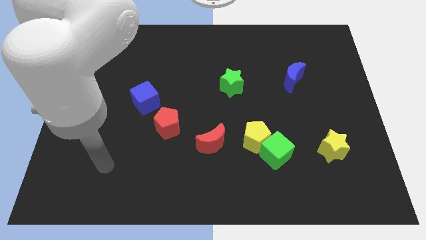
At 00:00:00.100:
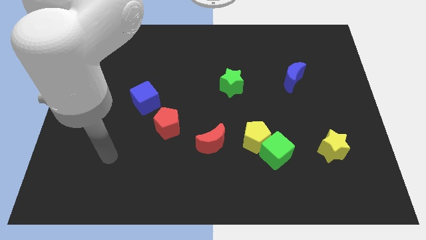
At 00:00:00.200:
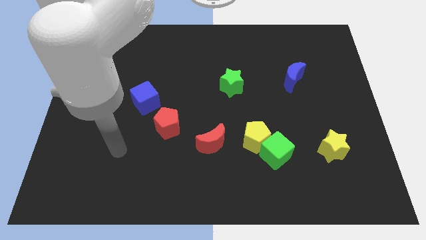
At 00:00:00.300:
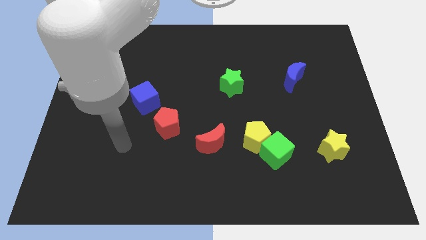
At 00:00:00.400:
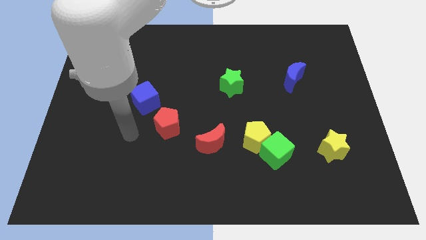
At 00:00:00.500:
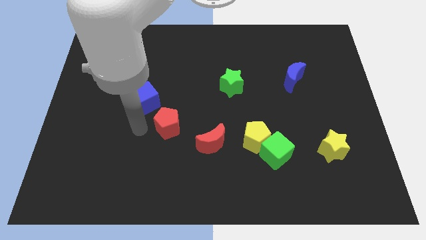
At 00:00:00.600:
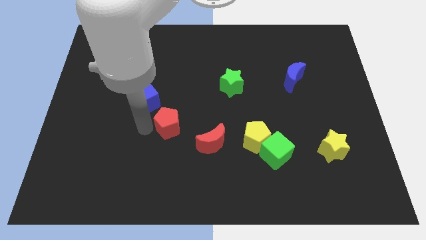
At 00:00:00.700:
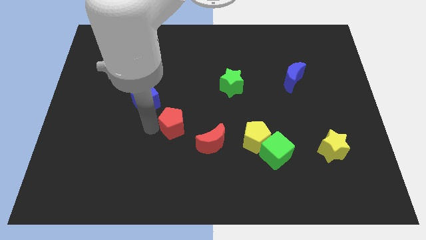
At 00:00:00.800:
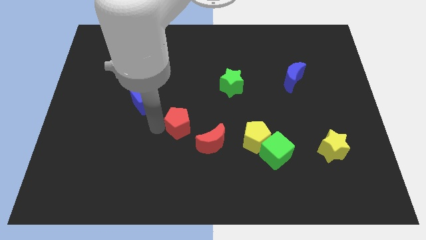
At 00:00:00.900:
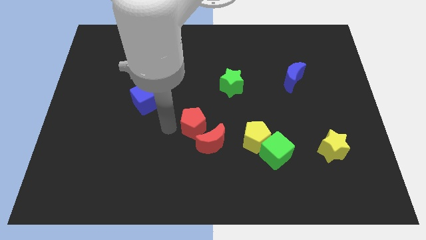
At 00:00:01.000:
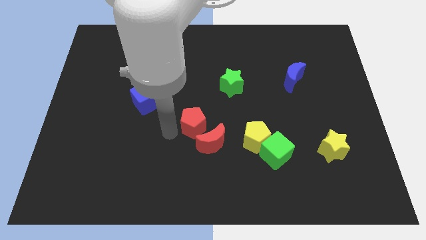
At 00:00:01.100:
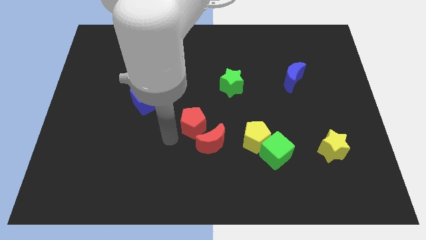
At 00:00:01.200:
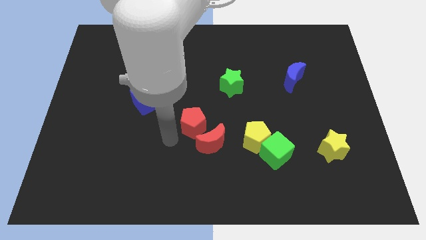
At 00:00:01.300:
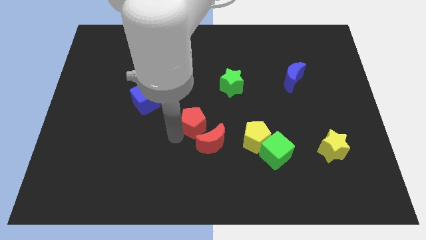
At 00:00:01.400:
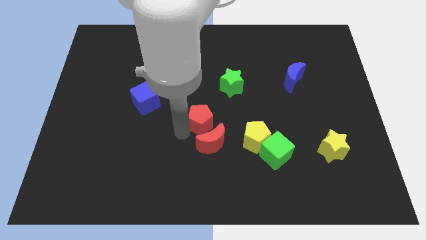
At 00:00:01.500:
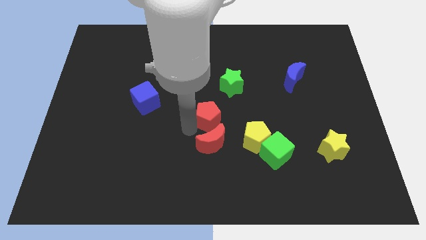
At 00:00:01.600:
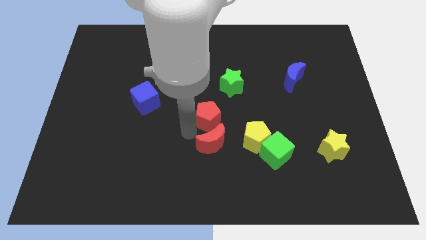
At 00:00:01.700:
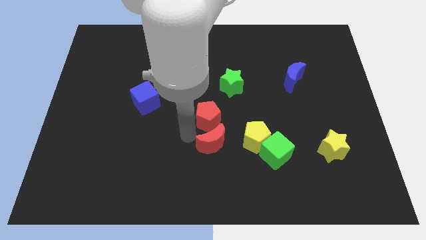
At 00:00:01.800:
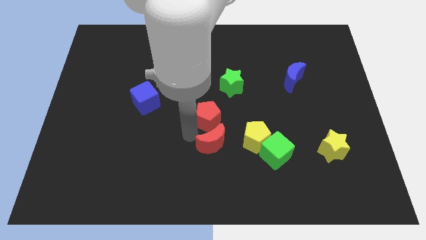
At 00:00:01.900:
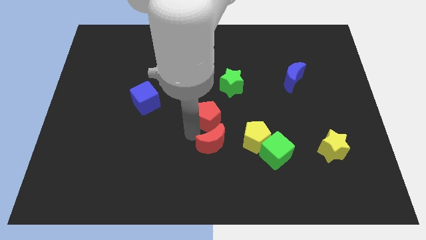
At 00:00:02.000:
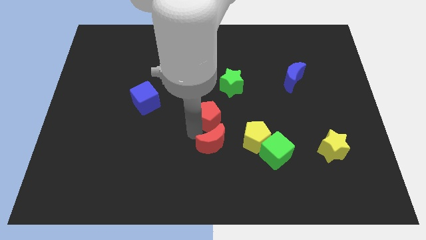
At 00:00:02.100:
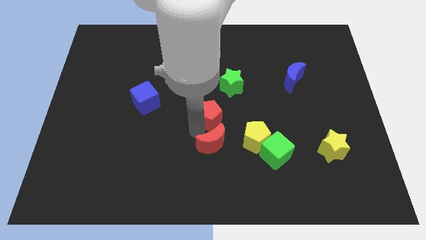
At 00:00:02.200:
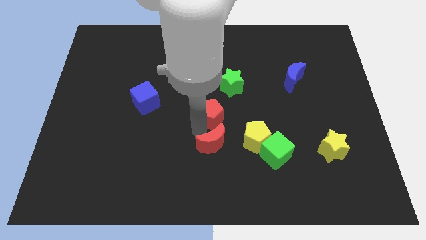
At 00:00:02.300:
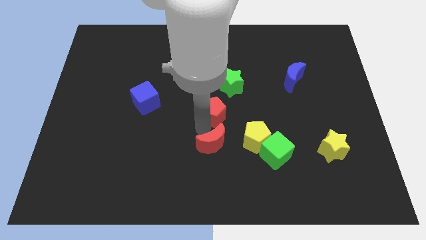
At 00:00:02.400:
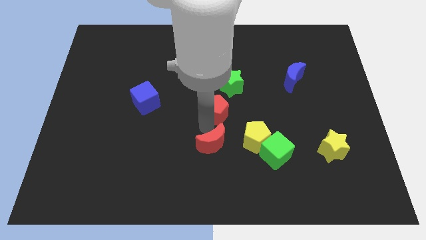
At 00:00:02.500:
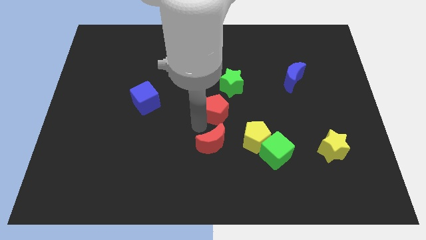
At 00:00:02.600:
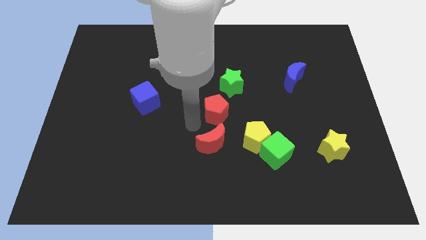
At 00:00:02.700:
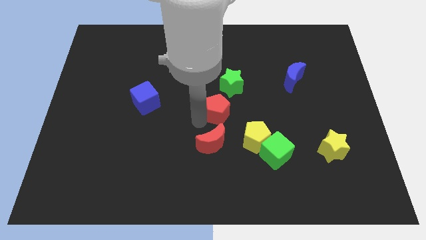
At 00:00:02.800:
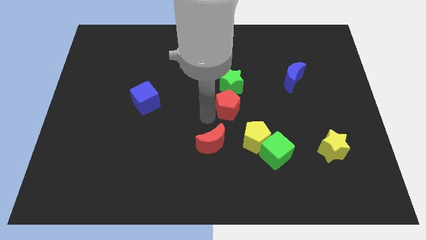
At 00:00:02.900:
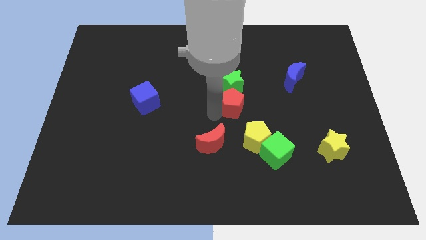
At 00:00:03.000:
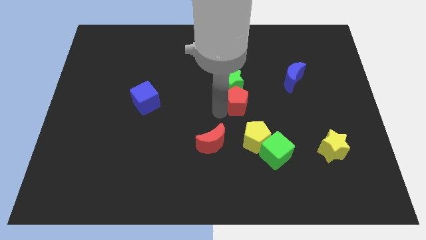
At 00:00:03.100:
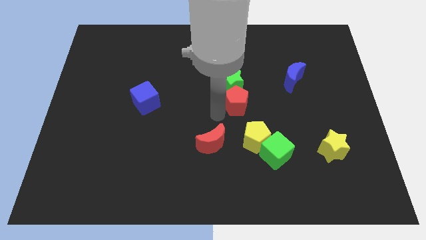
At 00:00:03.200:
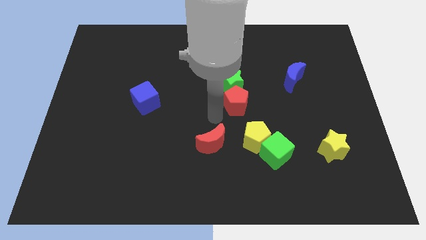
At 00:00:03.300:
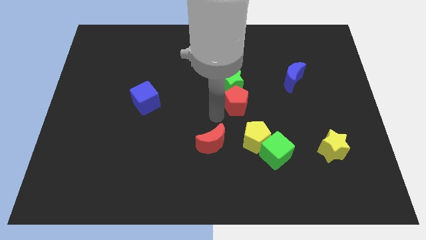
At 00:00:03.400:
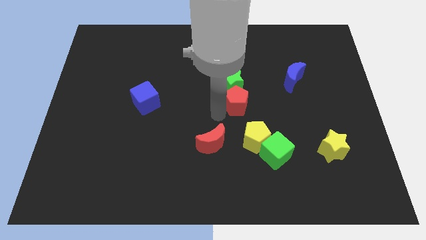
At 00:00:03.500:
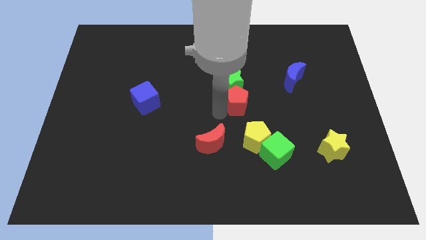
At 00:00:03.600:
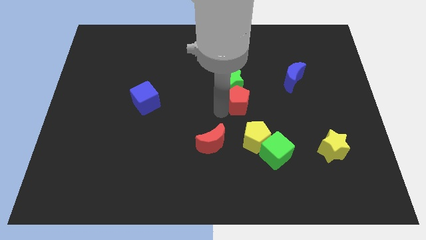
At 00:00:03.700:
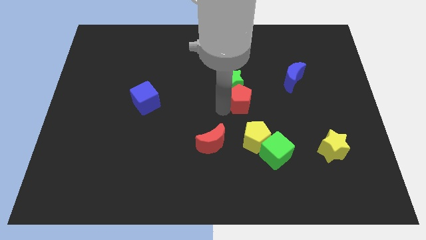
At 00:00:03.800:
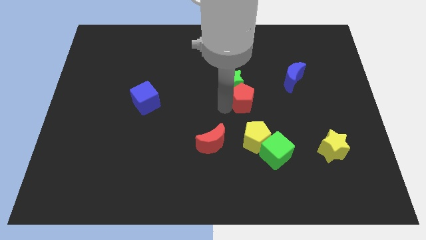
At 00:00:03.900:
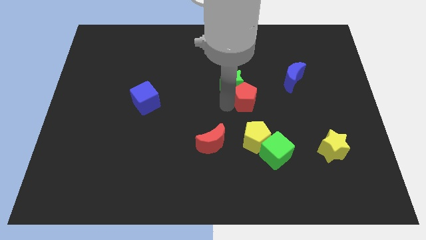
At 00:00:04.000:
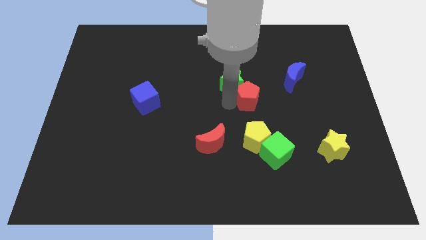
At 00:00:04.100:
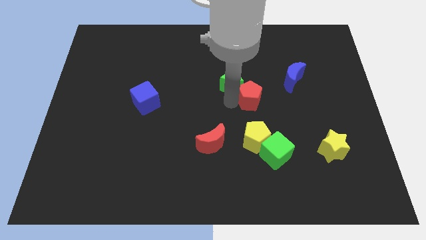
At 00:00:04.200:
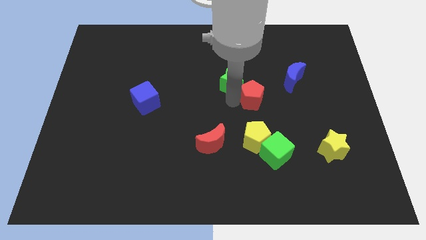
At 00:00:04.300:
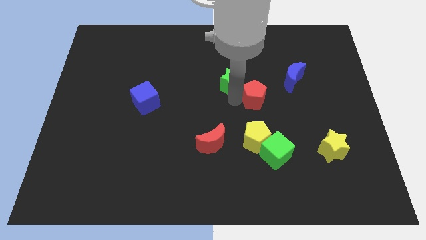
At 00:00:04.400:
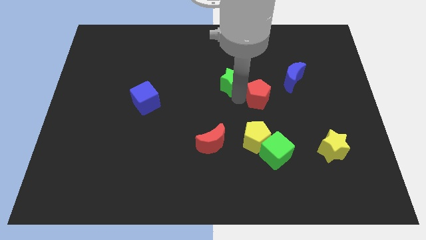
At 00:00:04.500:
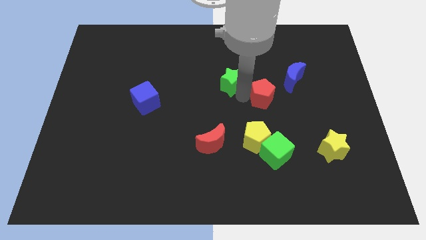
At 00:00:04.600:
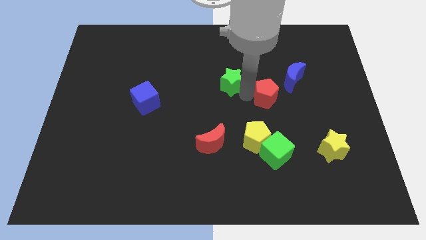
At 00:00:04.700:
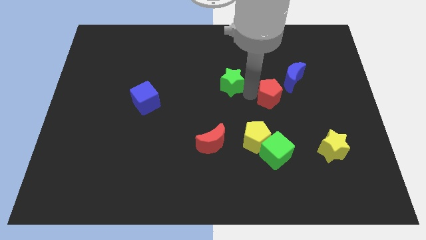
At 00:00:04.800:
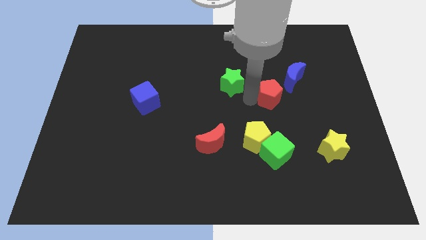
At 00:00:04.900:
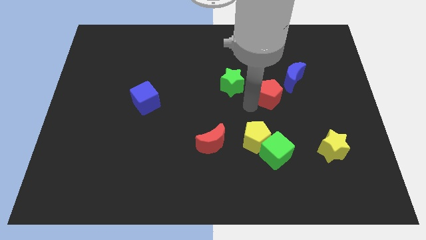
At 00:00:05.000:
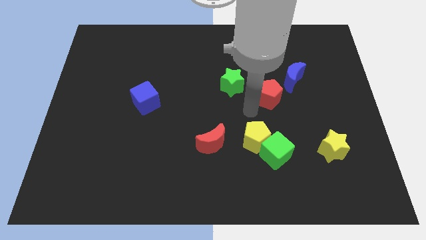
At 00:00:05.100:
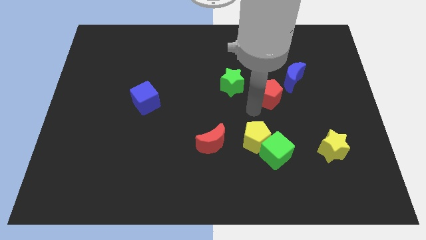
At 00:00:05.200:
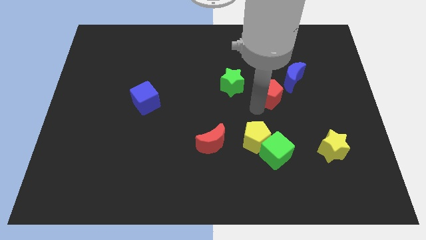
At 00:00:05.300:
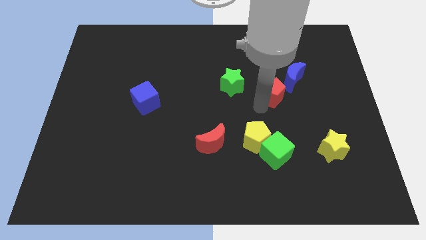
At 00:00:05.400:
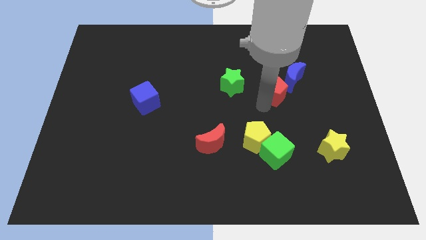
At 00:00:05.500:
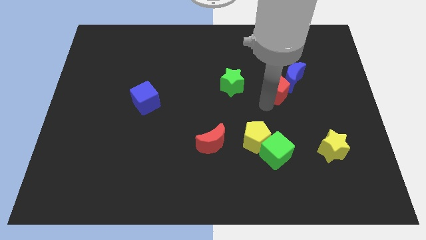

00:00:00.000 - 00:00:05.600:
move the red pentagon towards the blue moon

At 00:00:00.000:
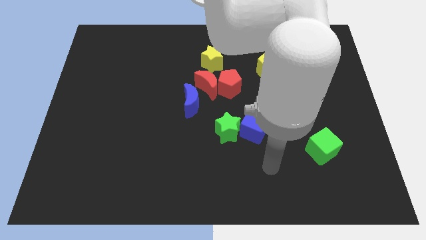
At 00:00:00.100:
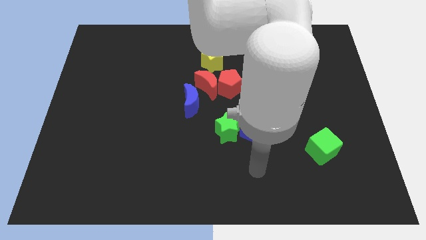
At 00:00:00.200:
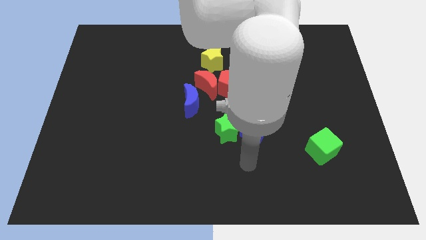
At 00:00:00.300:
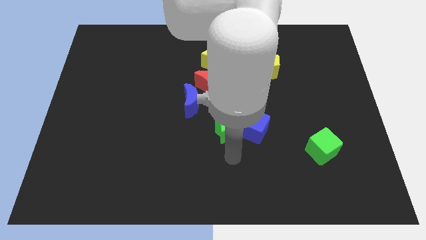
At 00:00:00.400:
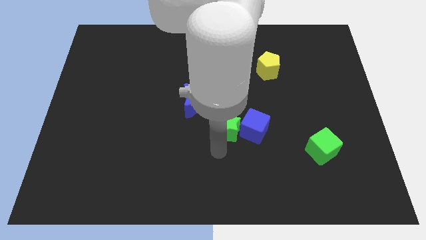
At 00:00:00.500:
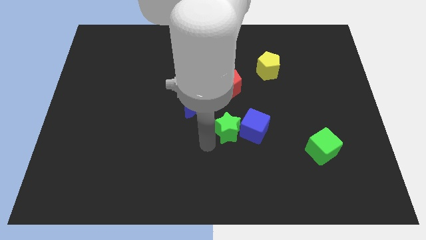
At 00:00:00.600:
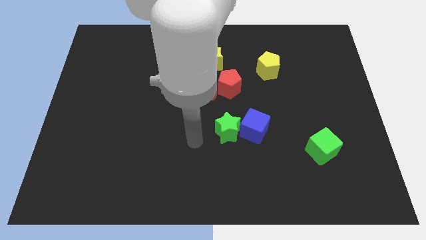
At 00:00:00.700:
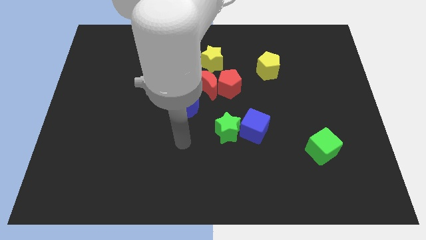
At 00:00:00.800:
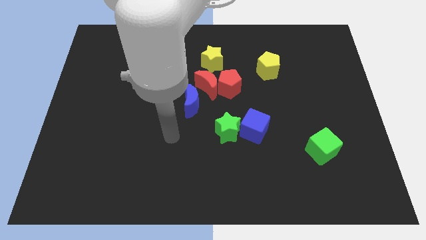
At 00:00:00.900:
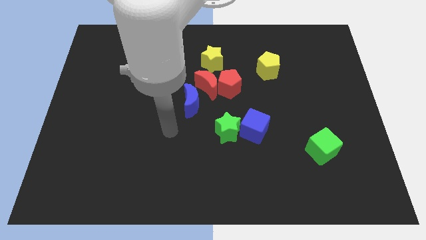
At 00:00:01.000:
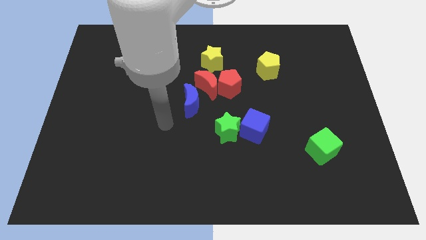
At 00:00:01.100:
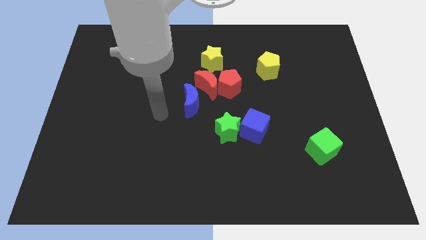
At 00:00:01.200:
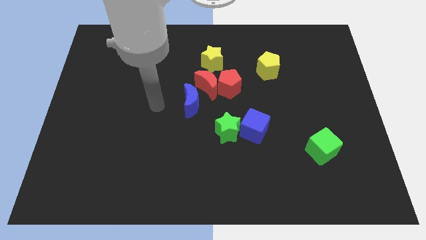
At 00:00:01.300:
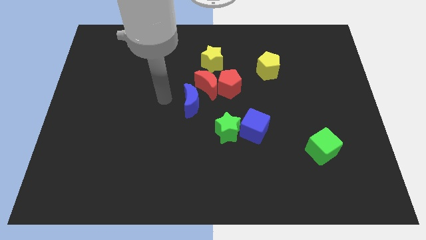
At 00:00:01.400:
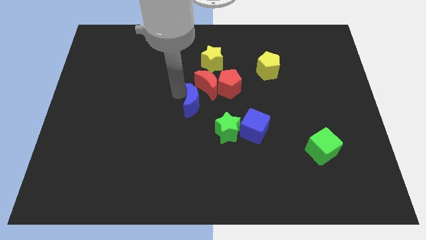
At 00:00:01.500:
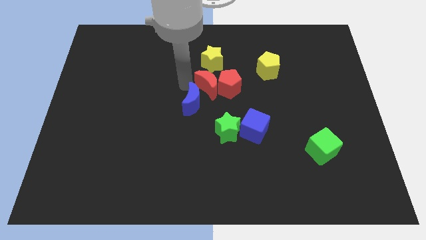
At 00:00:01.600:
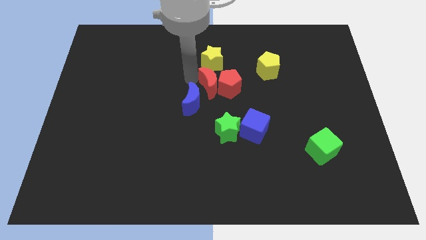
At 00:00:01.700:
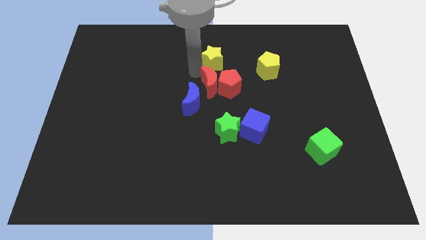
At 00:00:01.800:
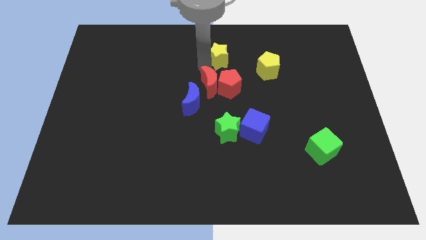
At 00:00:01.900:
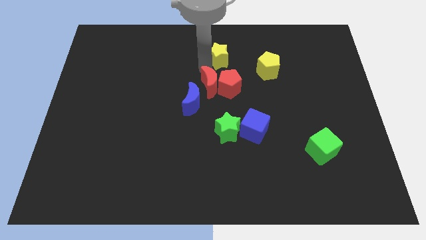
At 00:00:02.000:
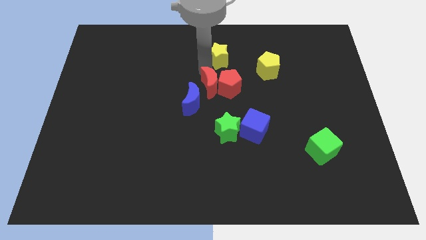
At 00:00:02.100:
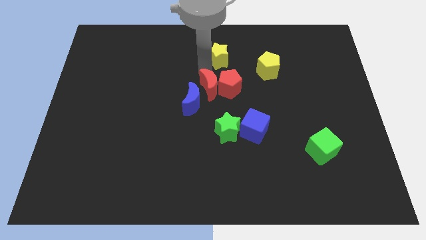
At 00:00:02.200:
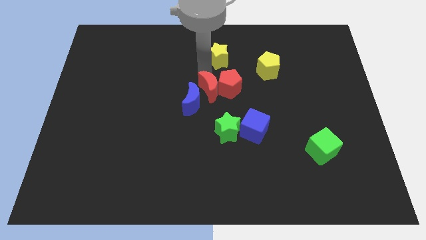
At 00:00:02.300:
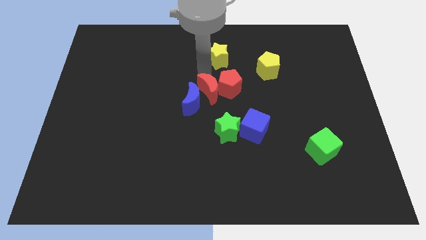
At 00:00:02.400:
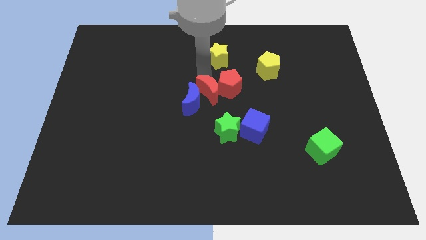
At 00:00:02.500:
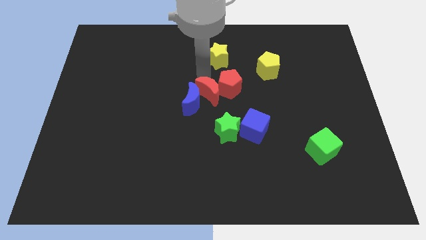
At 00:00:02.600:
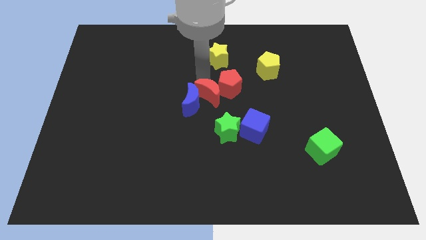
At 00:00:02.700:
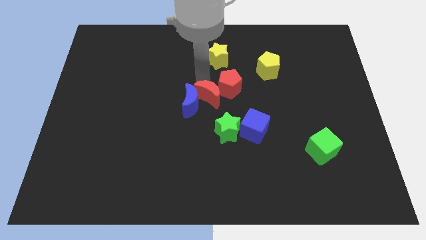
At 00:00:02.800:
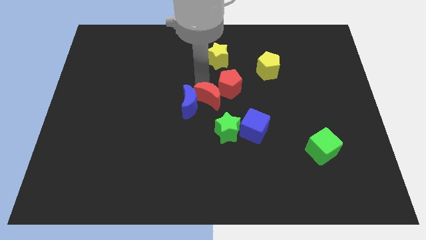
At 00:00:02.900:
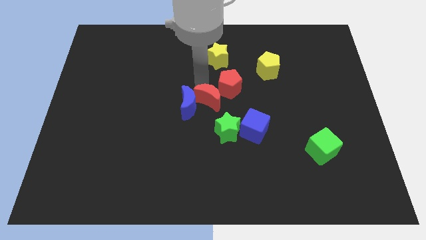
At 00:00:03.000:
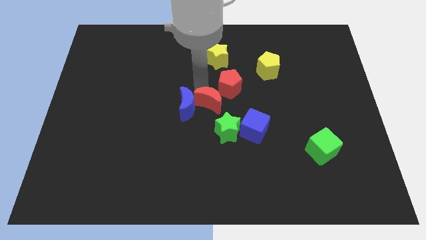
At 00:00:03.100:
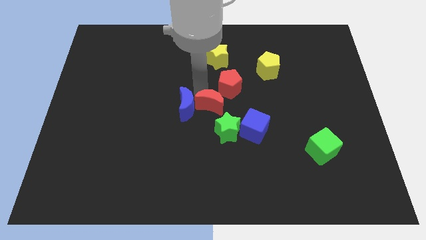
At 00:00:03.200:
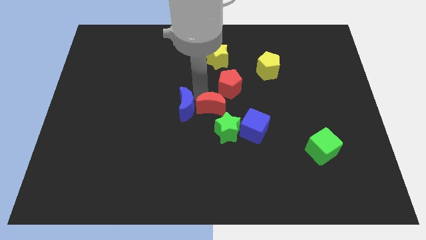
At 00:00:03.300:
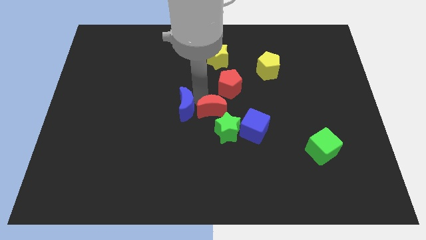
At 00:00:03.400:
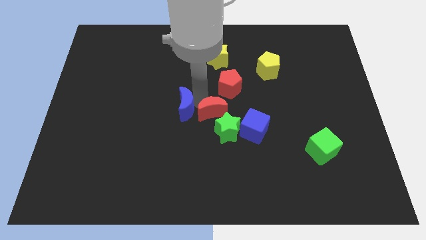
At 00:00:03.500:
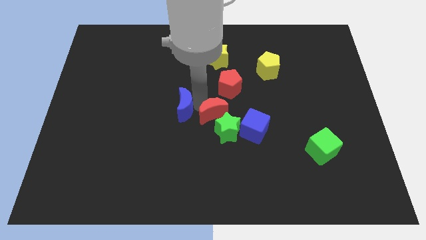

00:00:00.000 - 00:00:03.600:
put the red moon towards the green star
